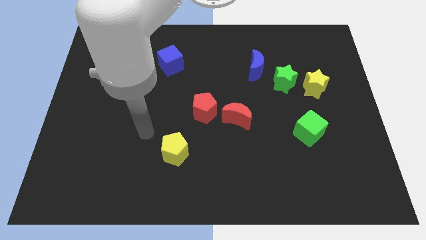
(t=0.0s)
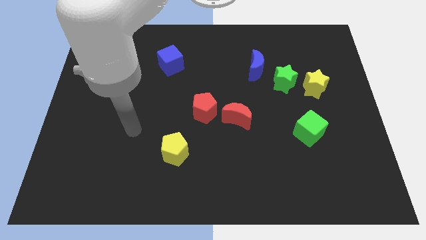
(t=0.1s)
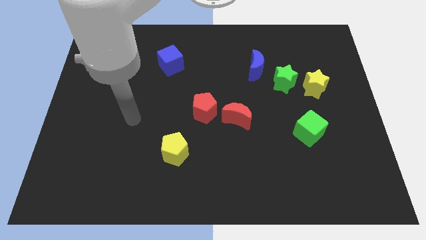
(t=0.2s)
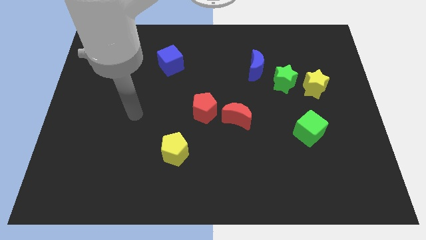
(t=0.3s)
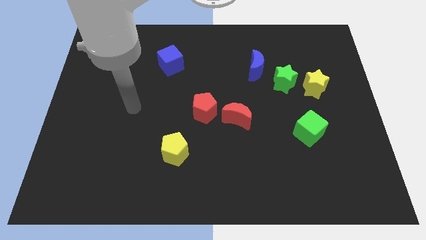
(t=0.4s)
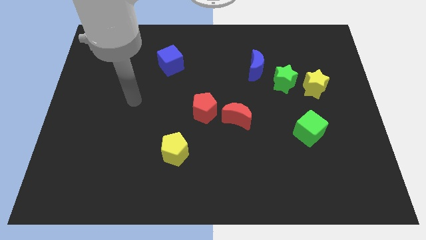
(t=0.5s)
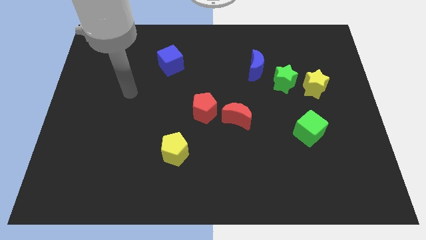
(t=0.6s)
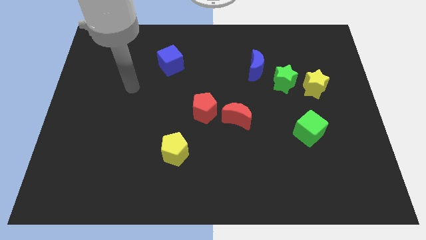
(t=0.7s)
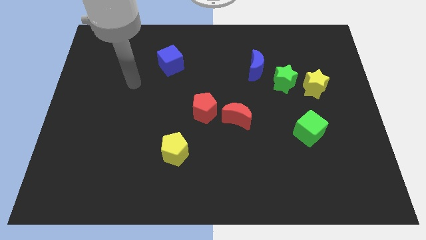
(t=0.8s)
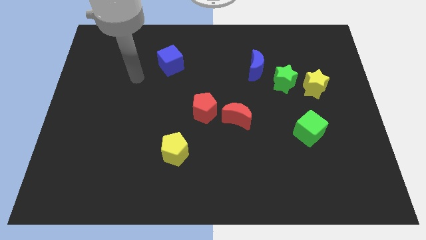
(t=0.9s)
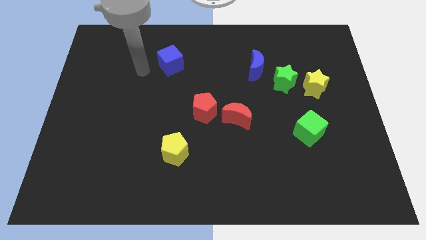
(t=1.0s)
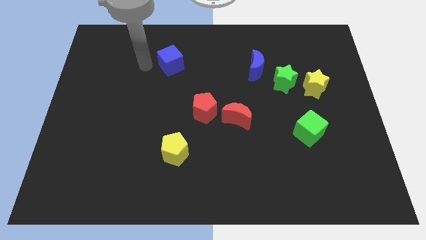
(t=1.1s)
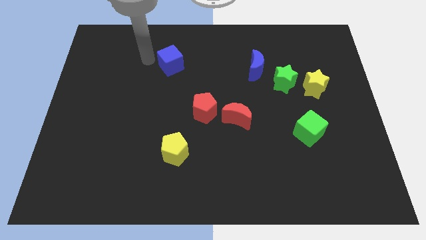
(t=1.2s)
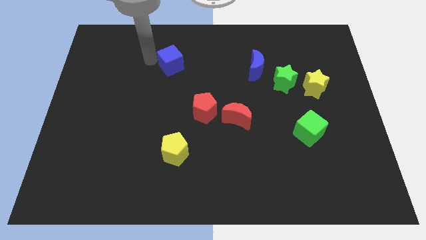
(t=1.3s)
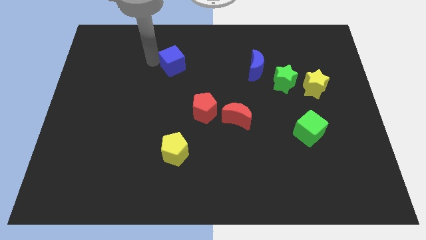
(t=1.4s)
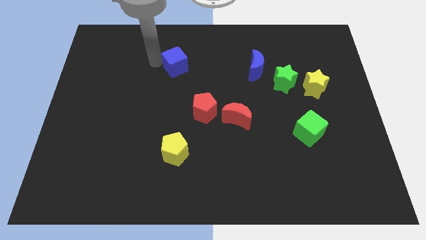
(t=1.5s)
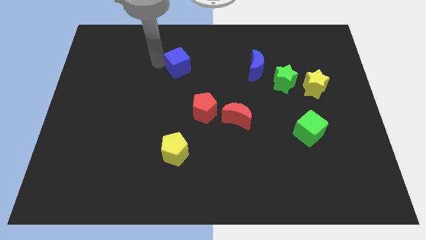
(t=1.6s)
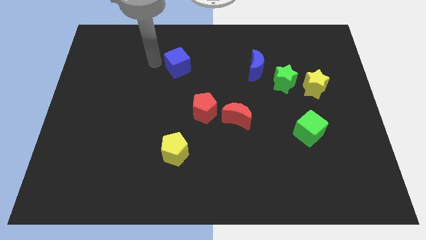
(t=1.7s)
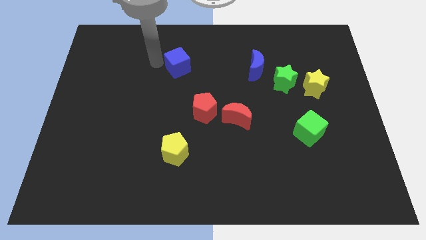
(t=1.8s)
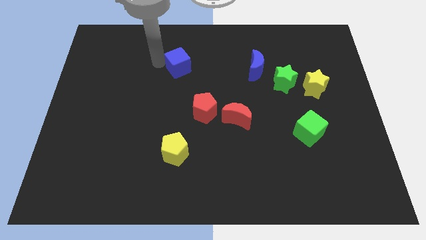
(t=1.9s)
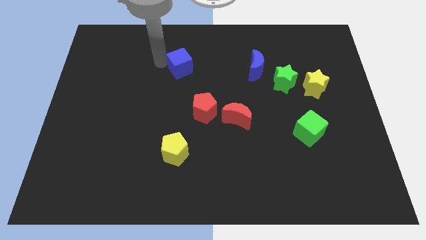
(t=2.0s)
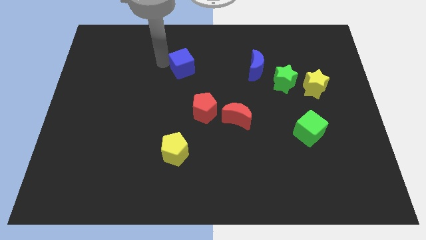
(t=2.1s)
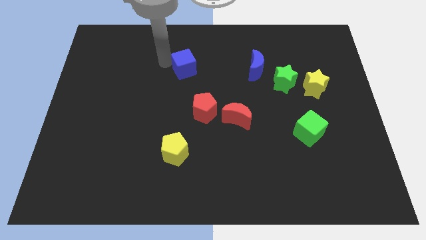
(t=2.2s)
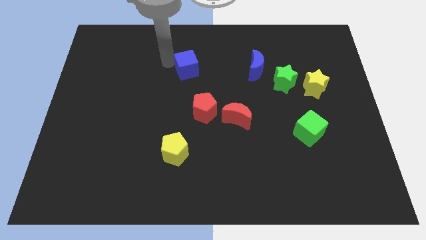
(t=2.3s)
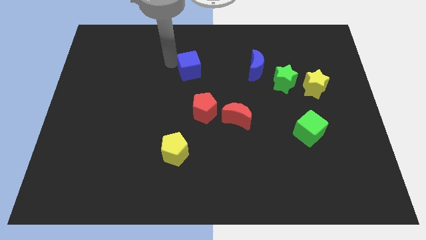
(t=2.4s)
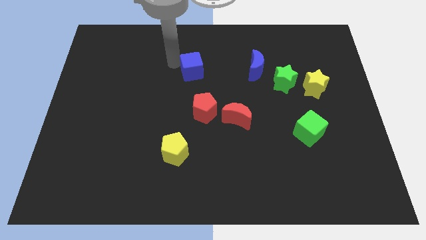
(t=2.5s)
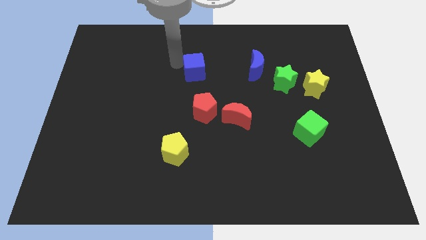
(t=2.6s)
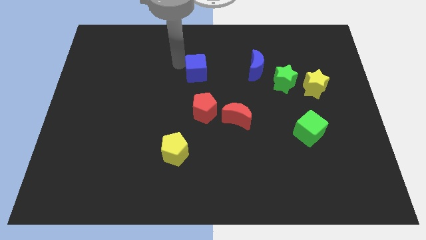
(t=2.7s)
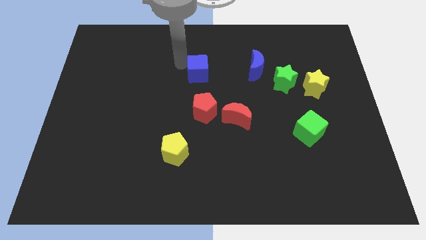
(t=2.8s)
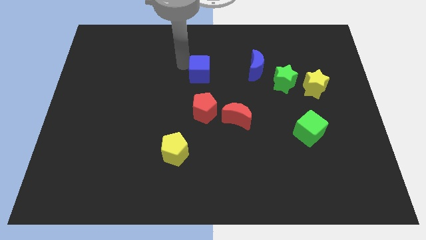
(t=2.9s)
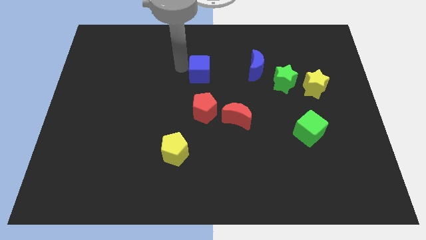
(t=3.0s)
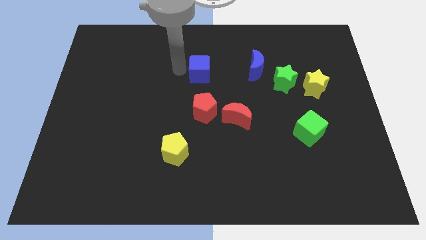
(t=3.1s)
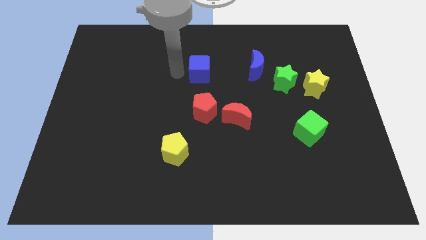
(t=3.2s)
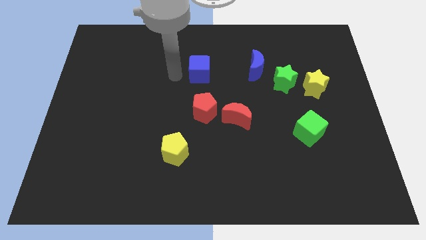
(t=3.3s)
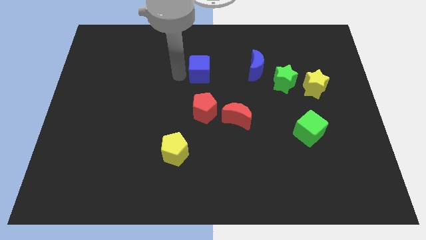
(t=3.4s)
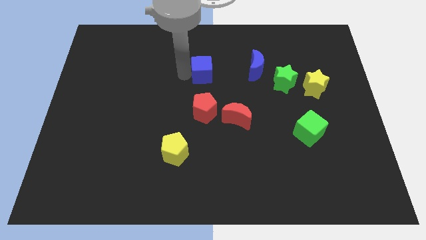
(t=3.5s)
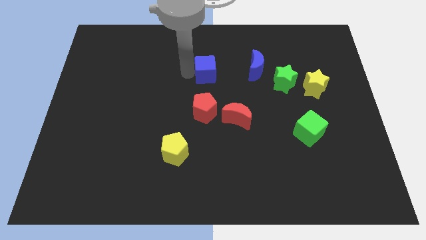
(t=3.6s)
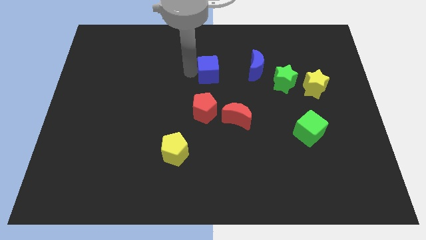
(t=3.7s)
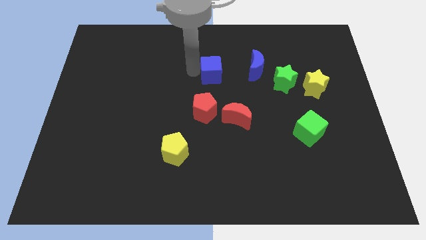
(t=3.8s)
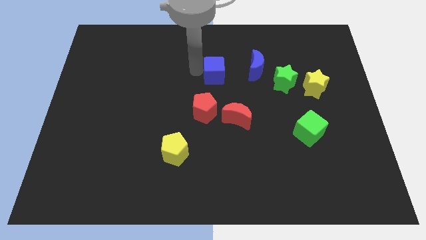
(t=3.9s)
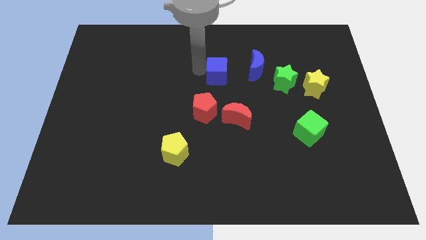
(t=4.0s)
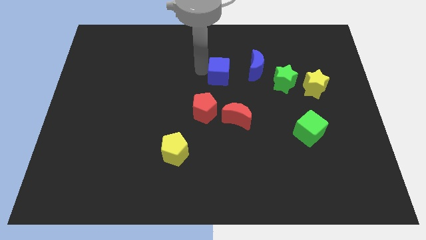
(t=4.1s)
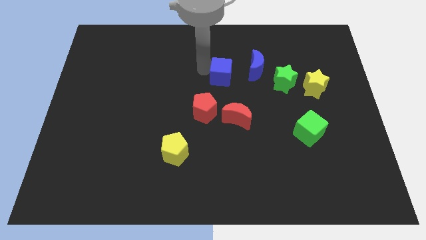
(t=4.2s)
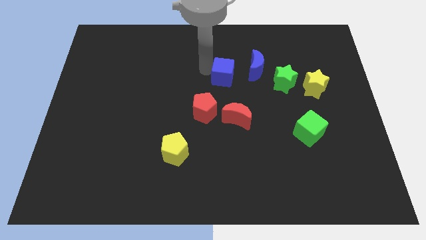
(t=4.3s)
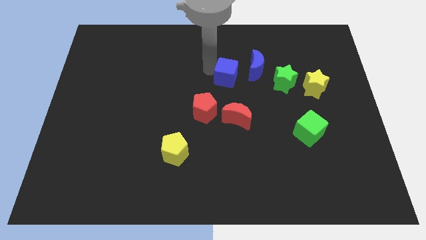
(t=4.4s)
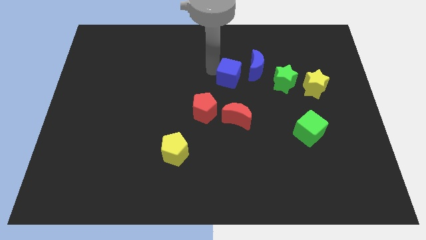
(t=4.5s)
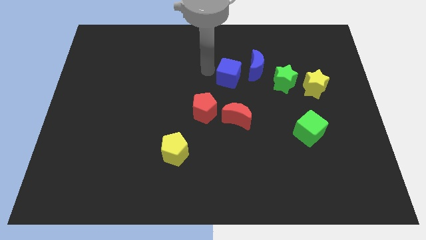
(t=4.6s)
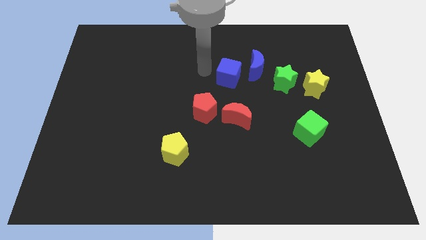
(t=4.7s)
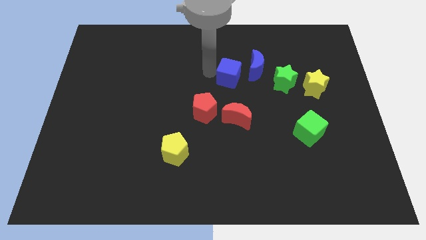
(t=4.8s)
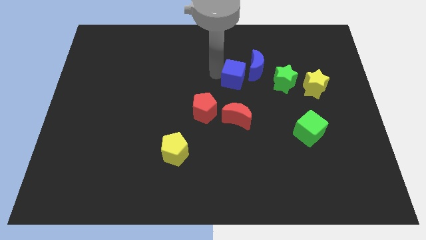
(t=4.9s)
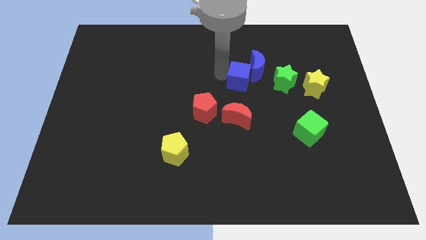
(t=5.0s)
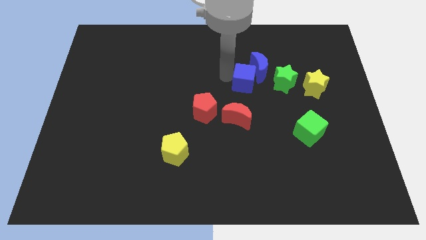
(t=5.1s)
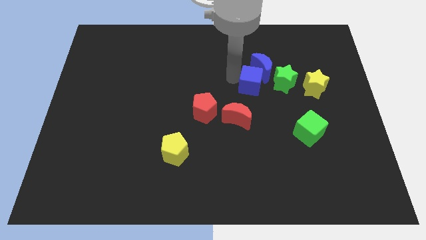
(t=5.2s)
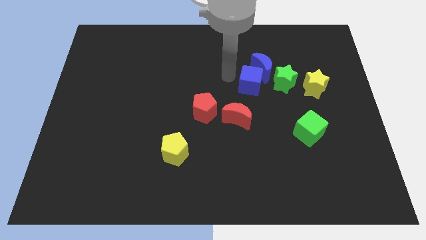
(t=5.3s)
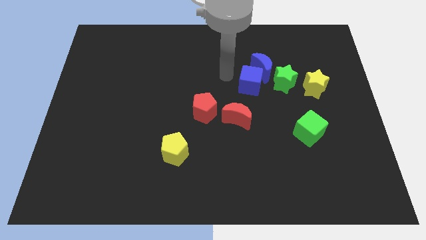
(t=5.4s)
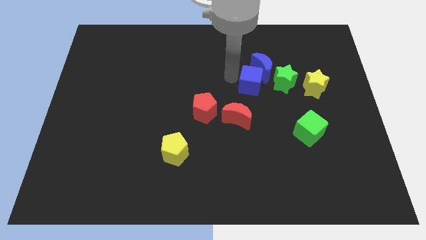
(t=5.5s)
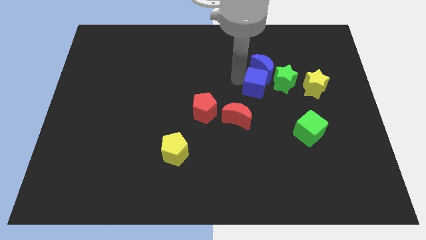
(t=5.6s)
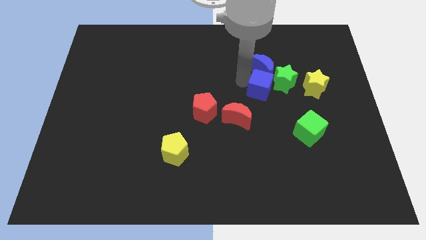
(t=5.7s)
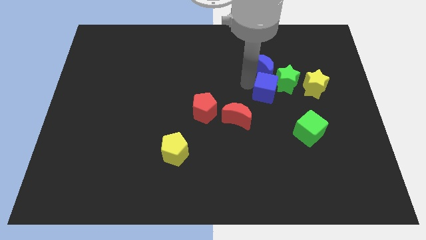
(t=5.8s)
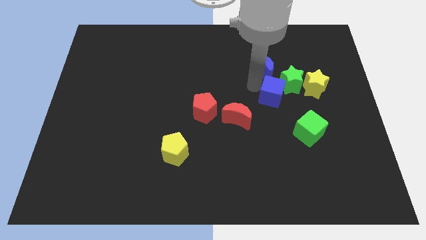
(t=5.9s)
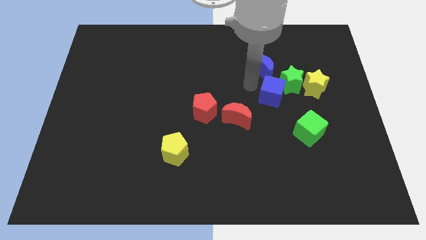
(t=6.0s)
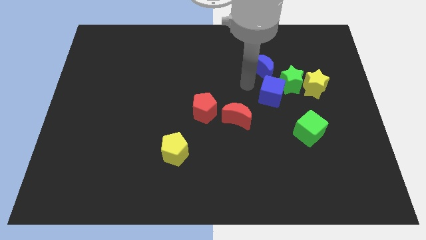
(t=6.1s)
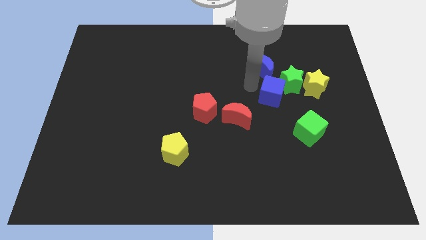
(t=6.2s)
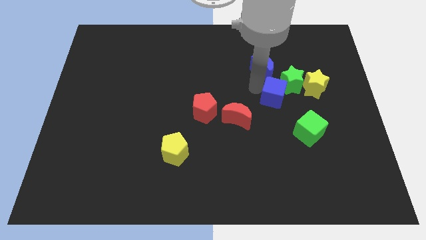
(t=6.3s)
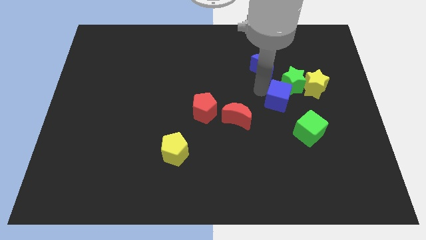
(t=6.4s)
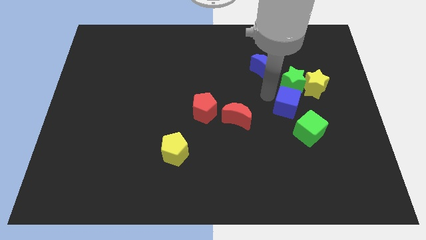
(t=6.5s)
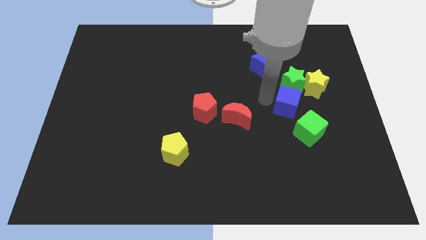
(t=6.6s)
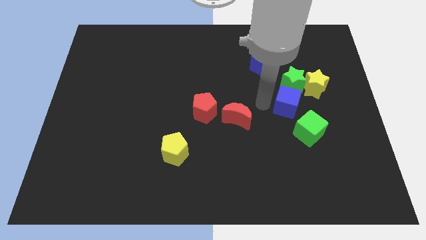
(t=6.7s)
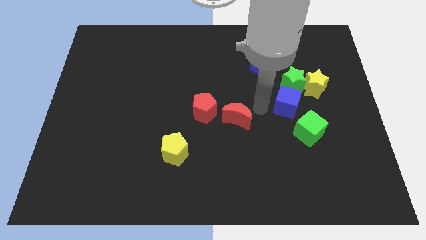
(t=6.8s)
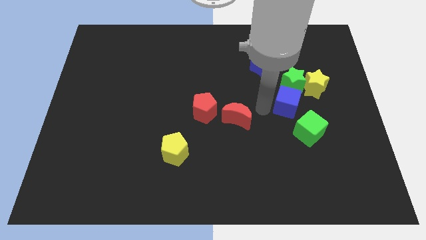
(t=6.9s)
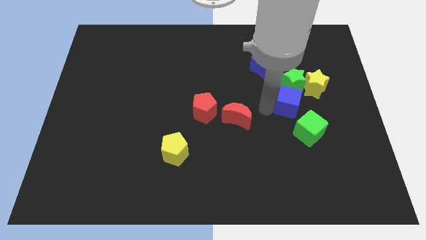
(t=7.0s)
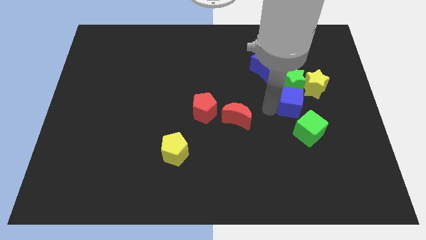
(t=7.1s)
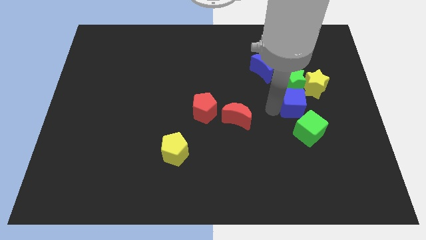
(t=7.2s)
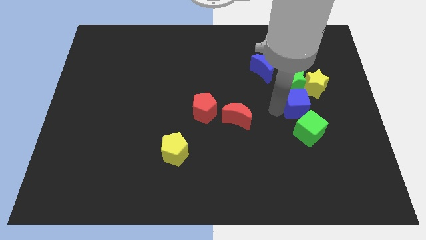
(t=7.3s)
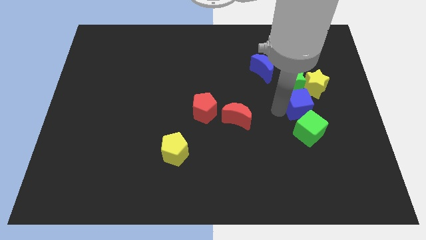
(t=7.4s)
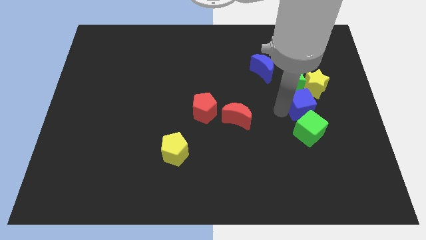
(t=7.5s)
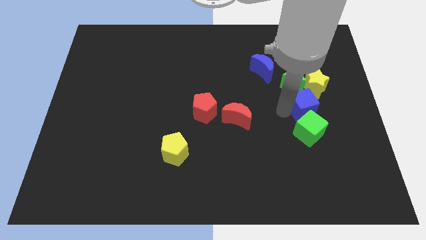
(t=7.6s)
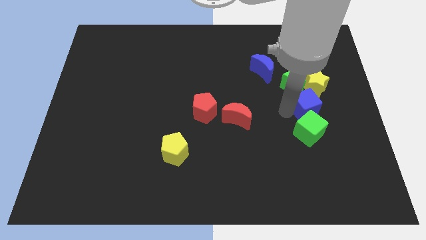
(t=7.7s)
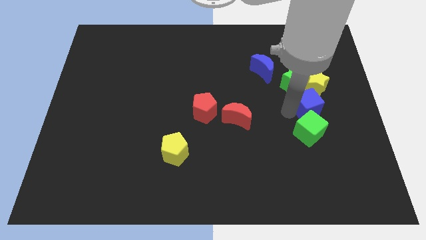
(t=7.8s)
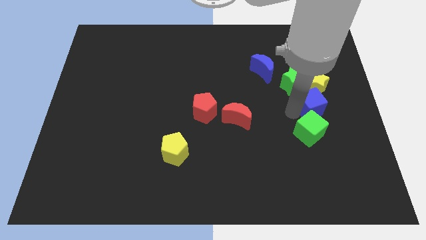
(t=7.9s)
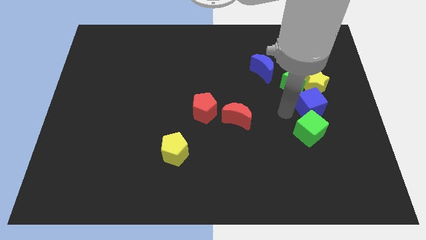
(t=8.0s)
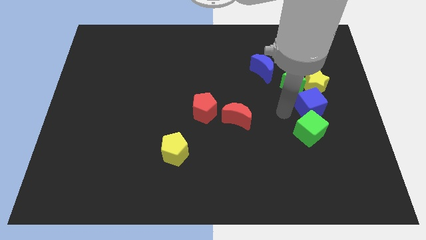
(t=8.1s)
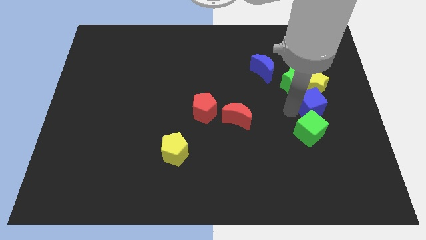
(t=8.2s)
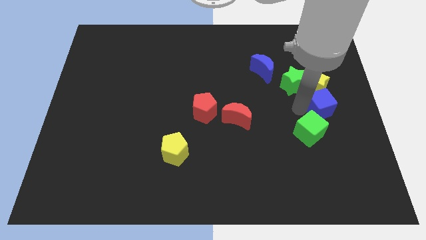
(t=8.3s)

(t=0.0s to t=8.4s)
push the blue cube to the center right
